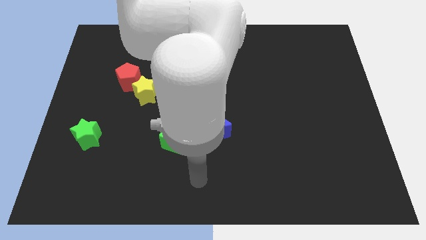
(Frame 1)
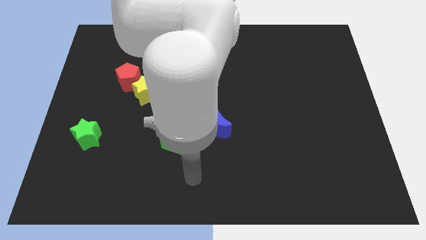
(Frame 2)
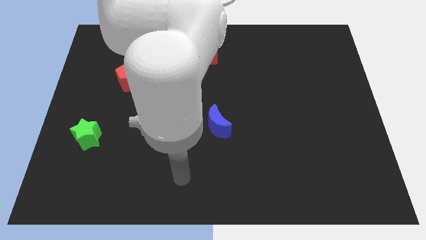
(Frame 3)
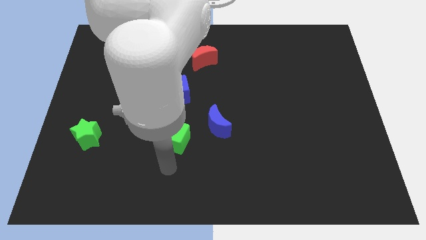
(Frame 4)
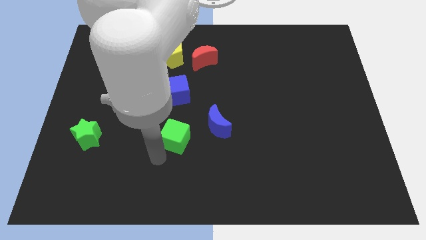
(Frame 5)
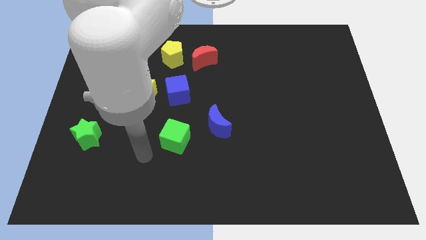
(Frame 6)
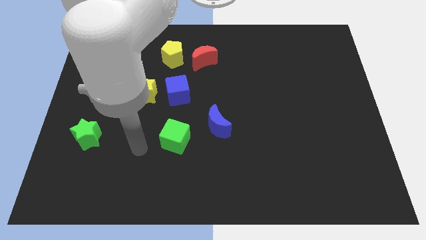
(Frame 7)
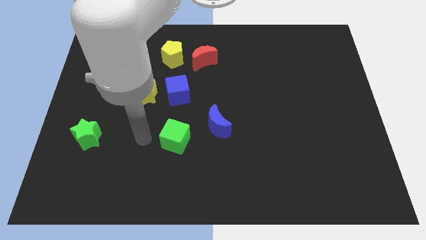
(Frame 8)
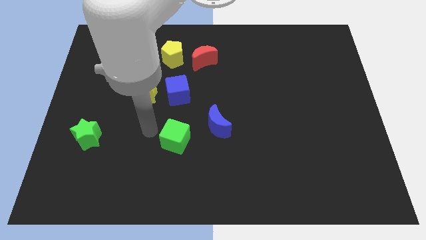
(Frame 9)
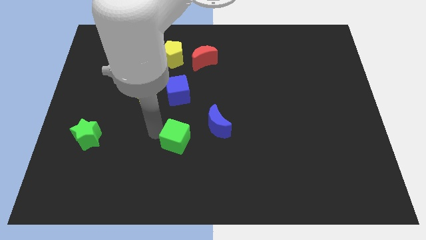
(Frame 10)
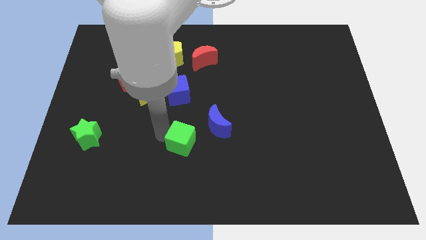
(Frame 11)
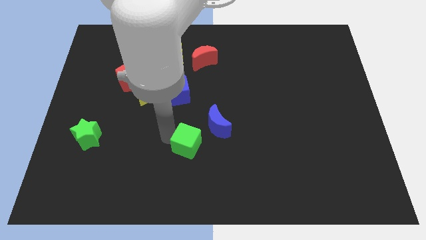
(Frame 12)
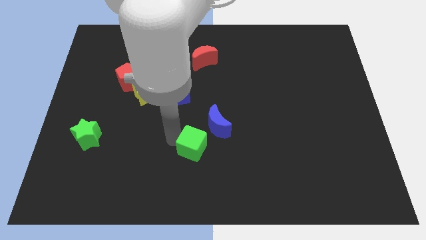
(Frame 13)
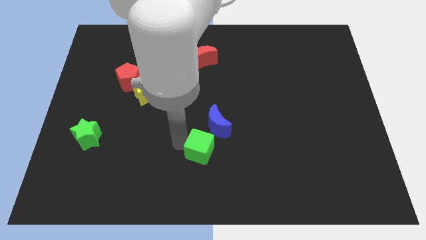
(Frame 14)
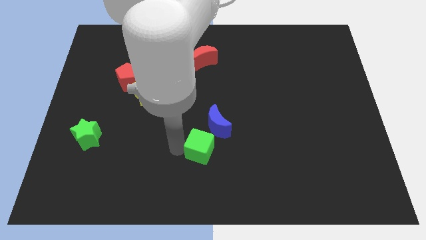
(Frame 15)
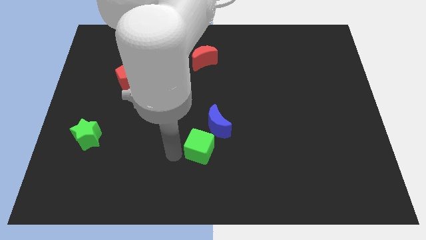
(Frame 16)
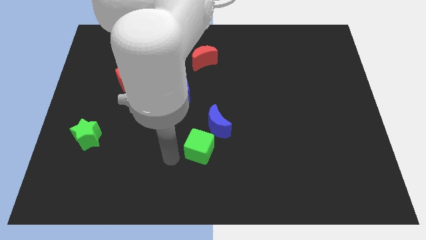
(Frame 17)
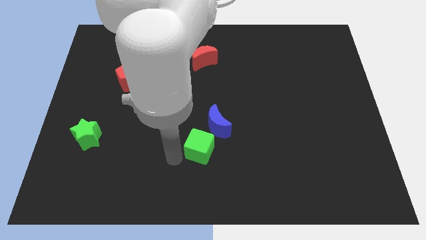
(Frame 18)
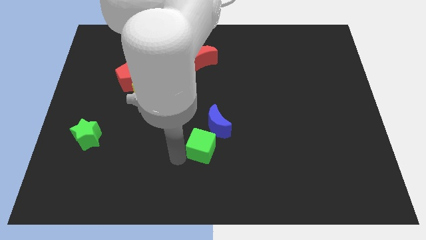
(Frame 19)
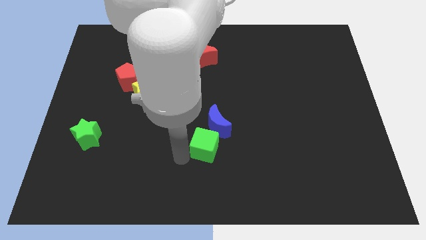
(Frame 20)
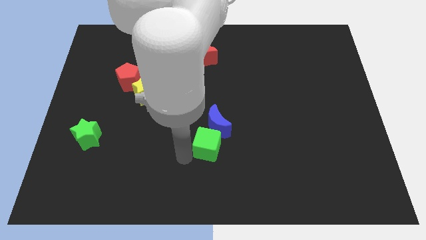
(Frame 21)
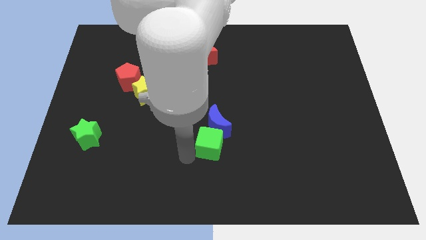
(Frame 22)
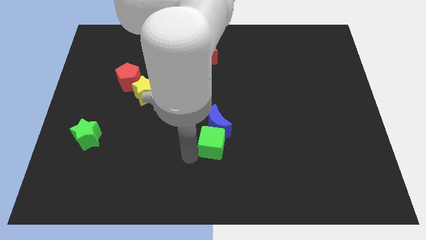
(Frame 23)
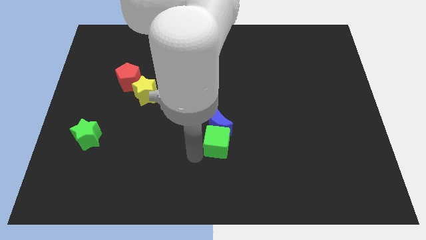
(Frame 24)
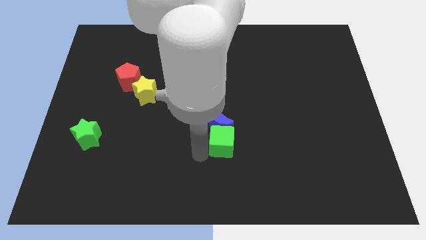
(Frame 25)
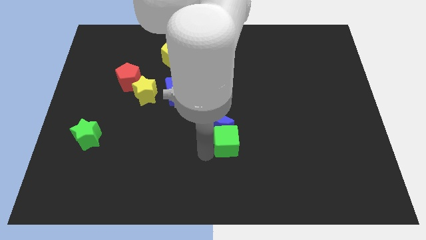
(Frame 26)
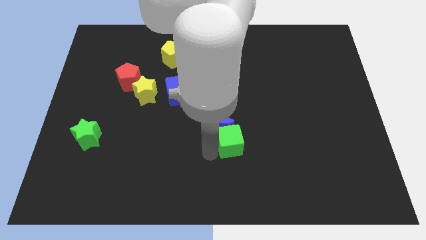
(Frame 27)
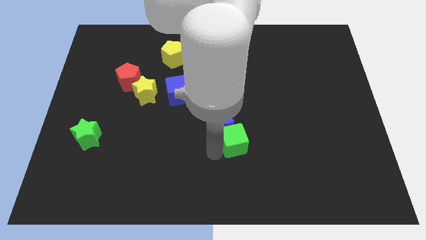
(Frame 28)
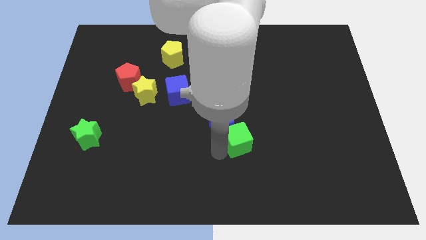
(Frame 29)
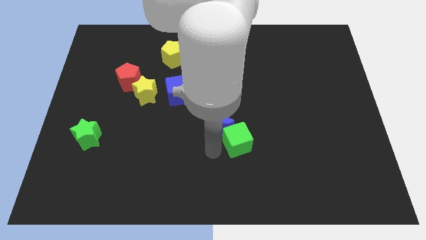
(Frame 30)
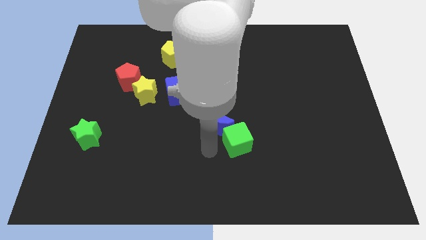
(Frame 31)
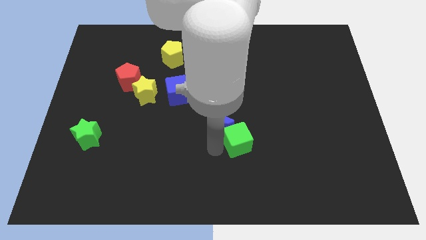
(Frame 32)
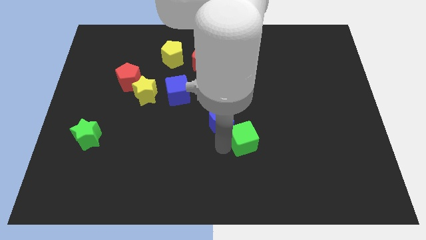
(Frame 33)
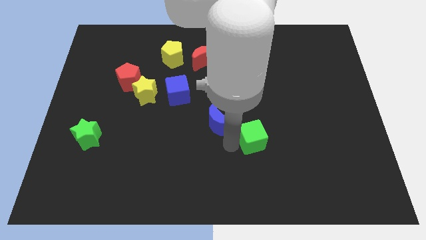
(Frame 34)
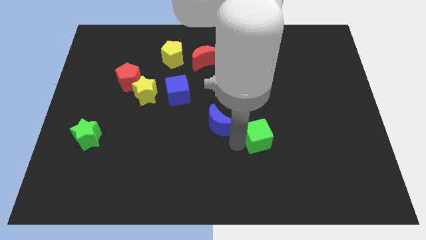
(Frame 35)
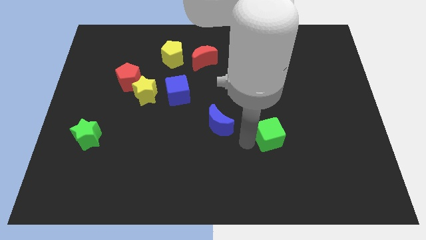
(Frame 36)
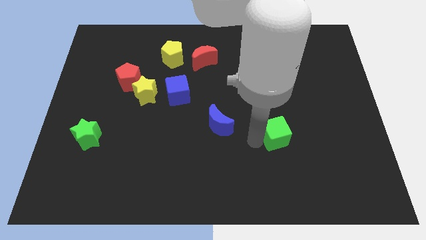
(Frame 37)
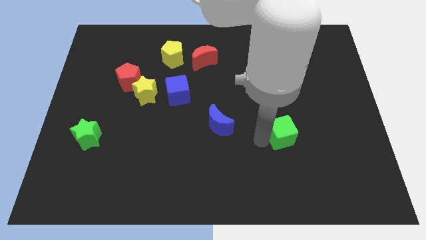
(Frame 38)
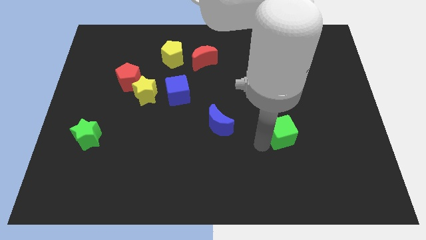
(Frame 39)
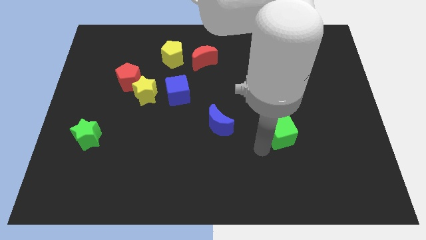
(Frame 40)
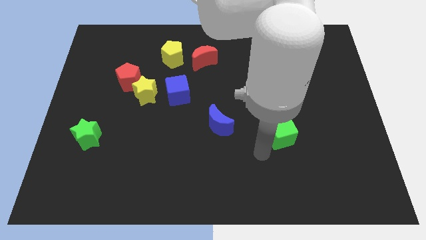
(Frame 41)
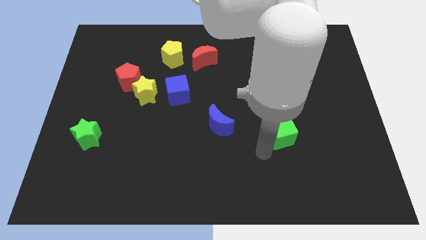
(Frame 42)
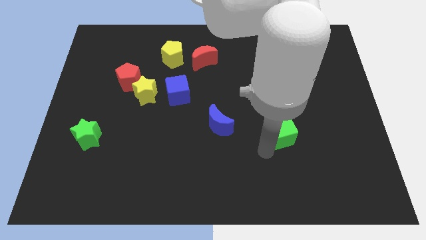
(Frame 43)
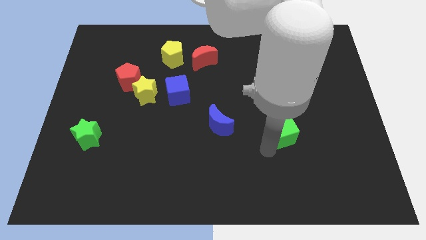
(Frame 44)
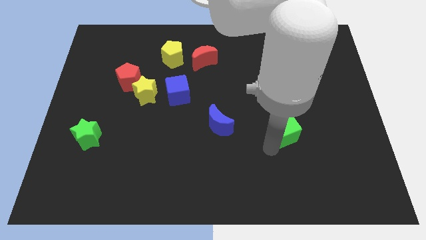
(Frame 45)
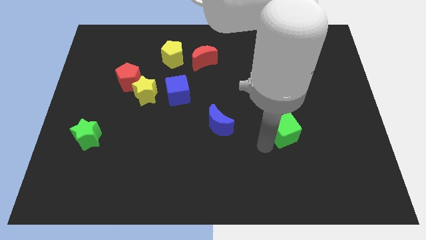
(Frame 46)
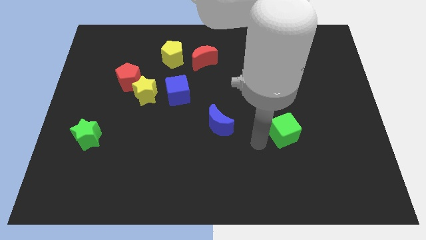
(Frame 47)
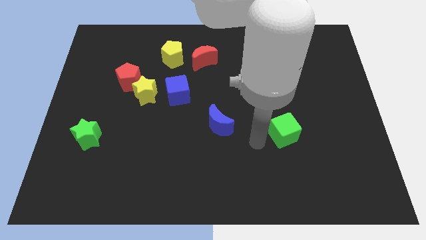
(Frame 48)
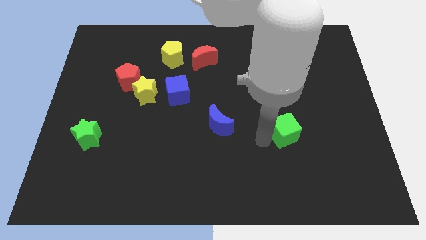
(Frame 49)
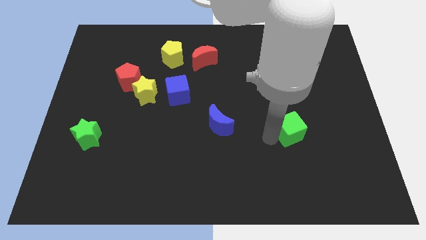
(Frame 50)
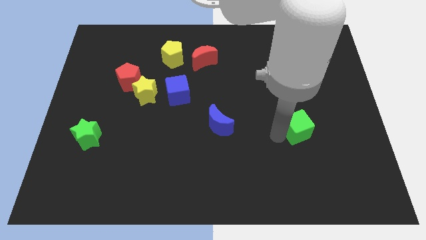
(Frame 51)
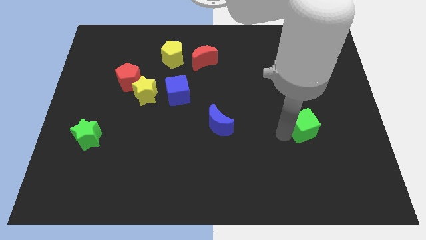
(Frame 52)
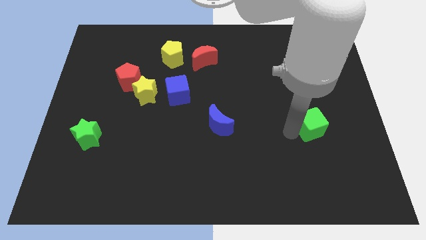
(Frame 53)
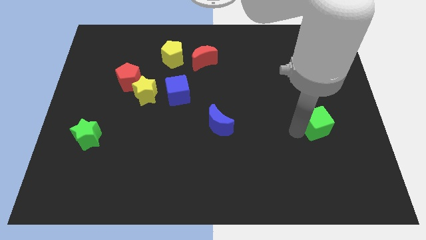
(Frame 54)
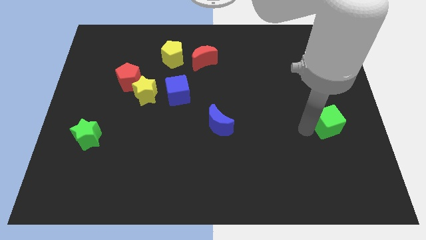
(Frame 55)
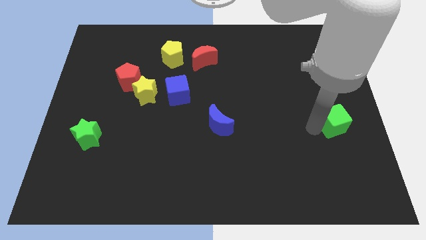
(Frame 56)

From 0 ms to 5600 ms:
put the green cube to the right side
